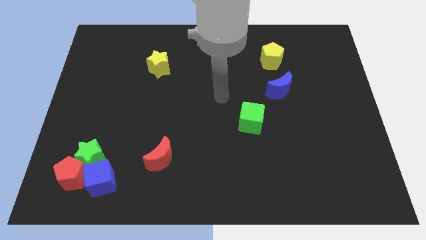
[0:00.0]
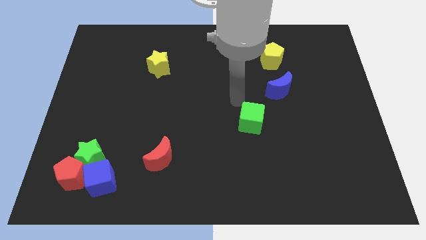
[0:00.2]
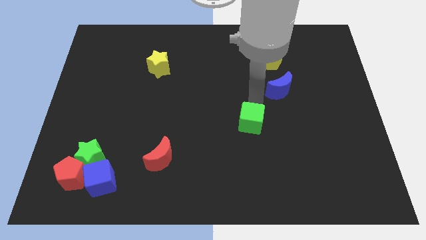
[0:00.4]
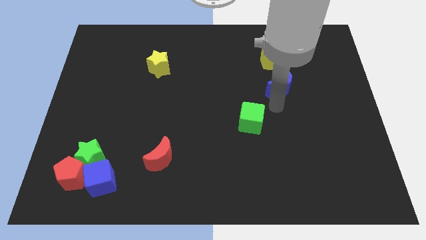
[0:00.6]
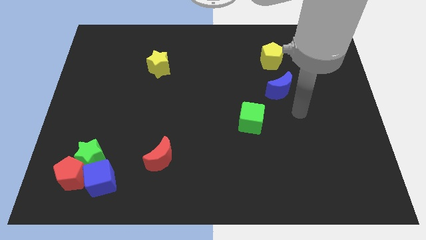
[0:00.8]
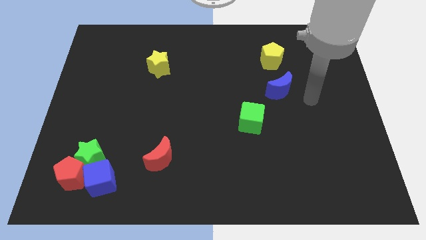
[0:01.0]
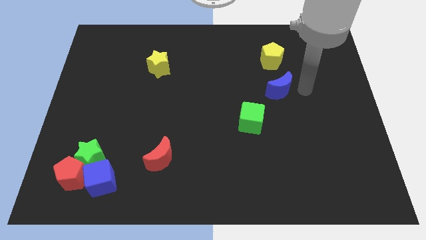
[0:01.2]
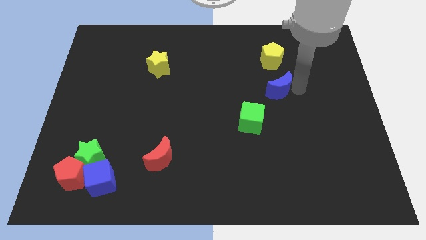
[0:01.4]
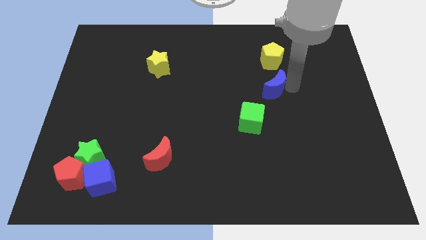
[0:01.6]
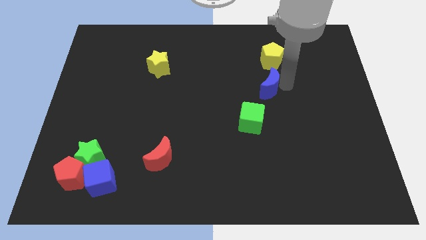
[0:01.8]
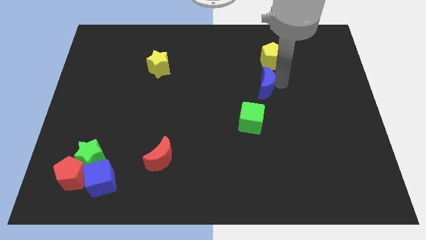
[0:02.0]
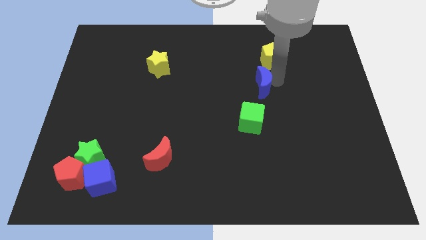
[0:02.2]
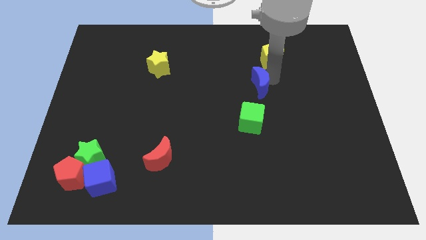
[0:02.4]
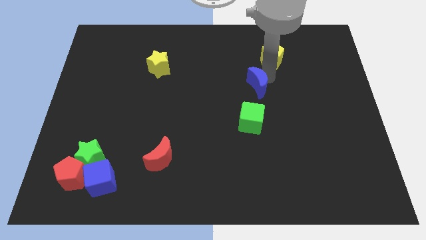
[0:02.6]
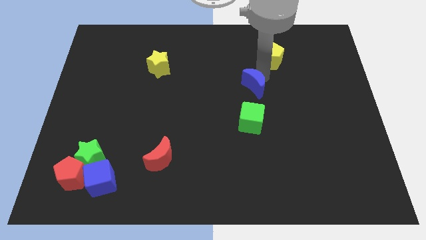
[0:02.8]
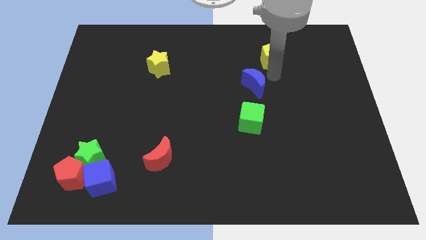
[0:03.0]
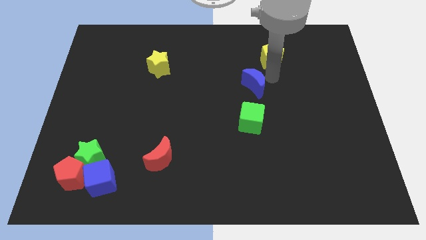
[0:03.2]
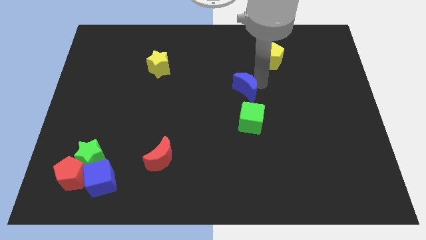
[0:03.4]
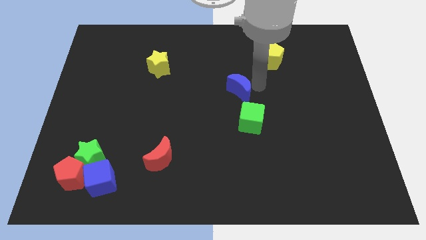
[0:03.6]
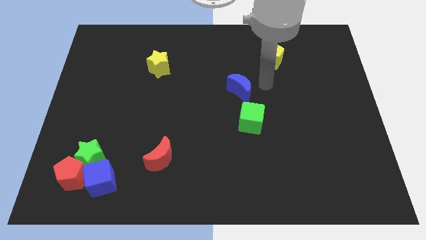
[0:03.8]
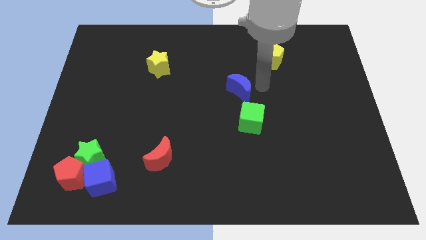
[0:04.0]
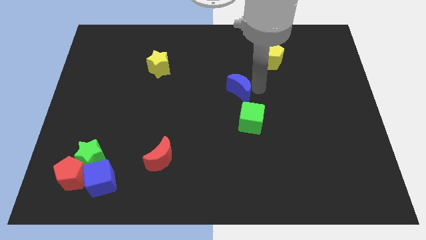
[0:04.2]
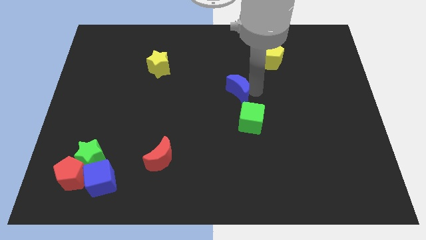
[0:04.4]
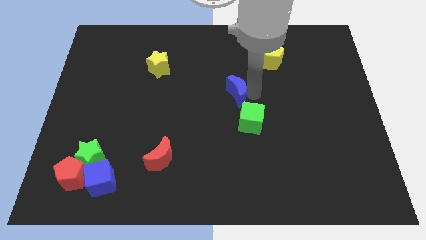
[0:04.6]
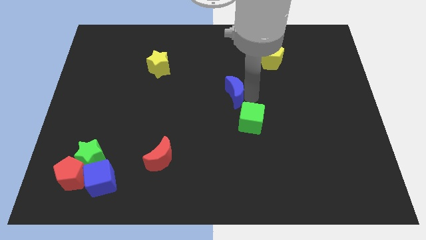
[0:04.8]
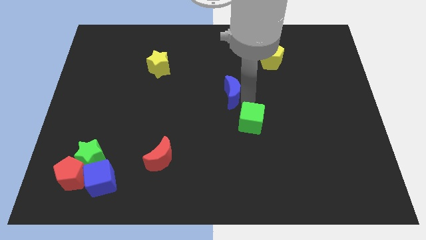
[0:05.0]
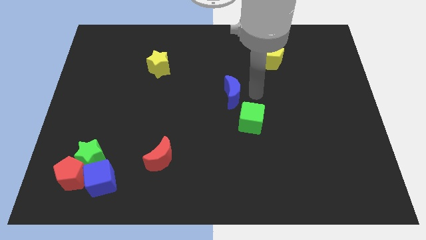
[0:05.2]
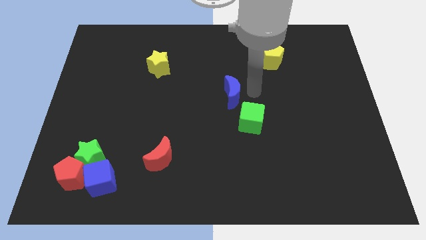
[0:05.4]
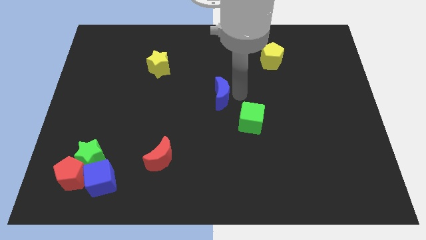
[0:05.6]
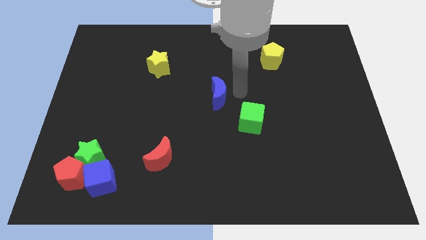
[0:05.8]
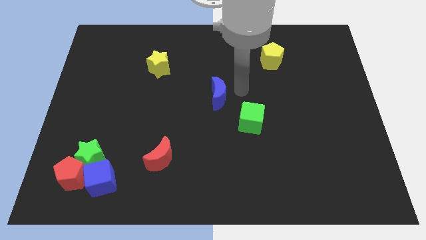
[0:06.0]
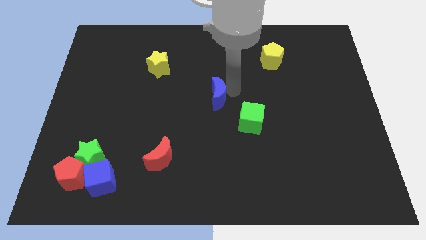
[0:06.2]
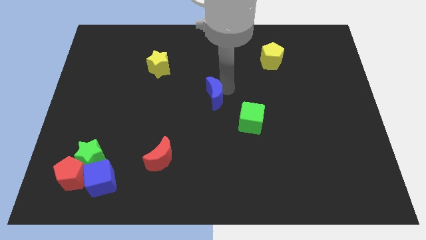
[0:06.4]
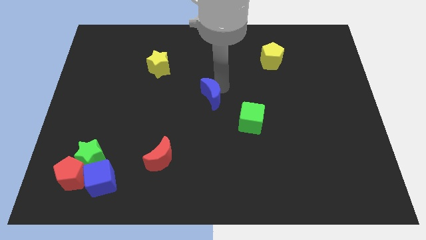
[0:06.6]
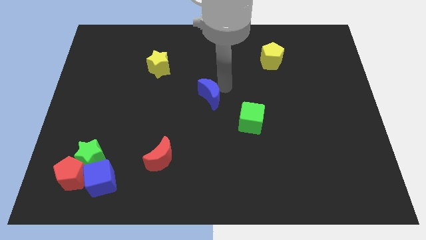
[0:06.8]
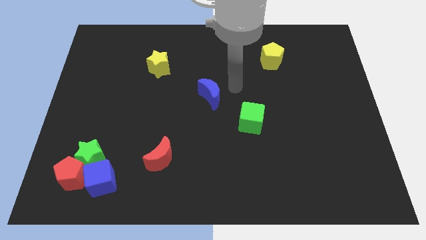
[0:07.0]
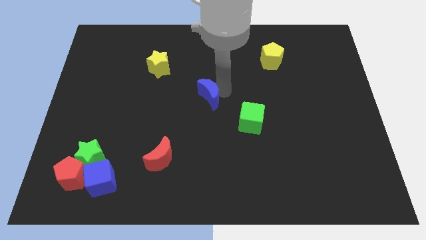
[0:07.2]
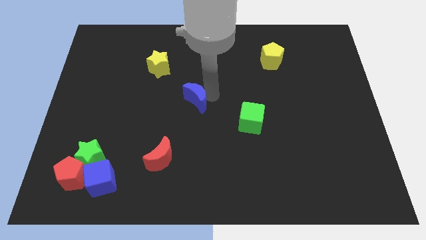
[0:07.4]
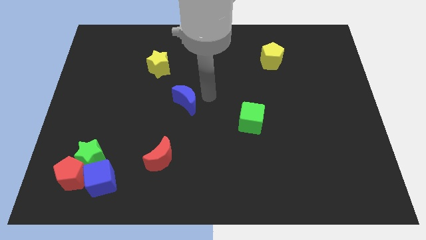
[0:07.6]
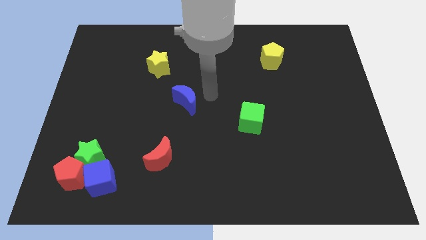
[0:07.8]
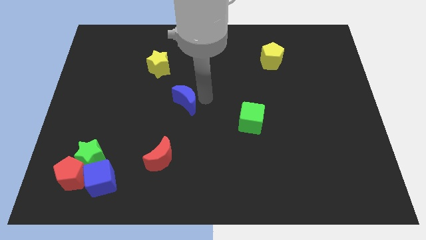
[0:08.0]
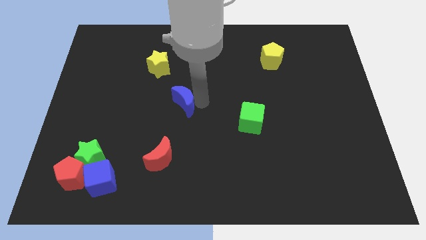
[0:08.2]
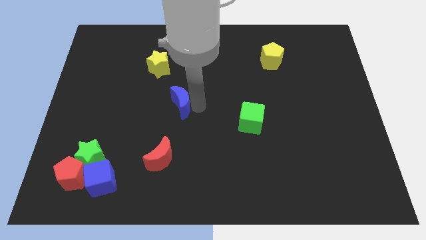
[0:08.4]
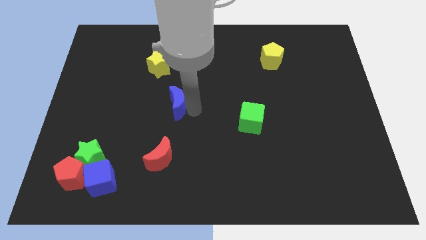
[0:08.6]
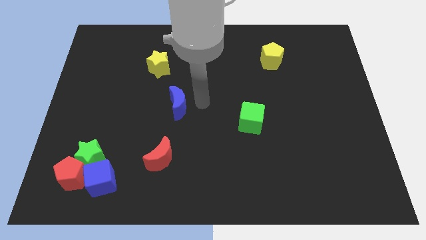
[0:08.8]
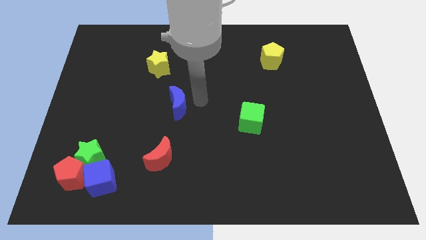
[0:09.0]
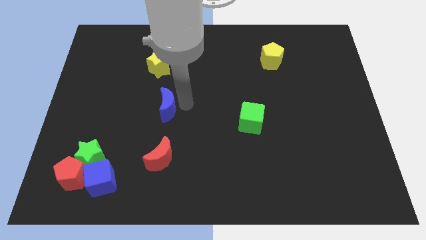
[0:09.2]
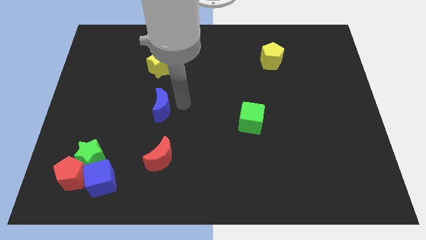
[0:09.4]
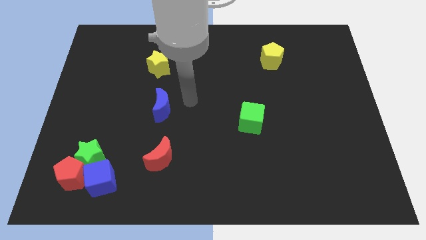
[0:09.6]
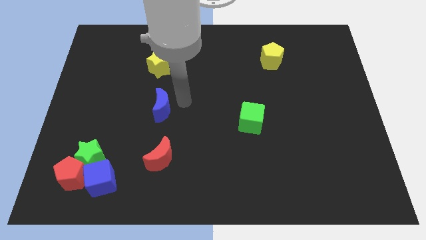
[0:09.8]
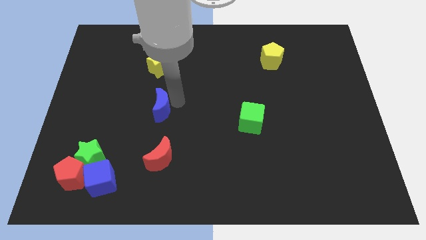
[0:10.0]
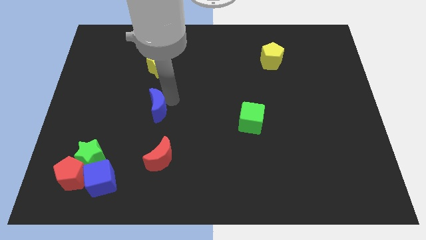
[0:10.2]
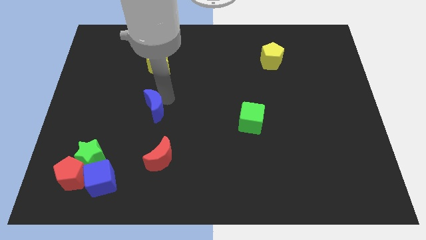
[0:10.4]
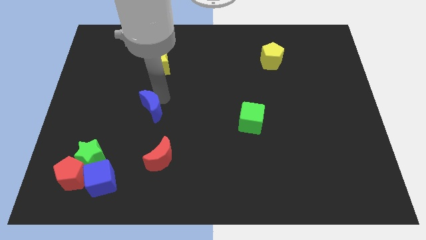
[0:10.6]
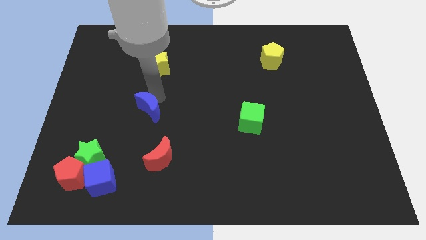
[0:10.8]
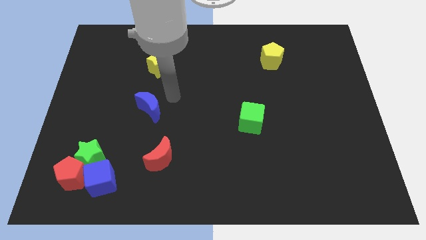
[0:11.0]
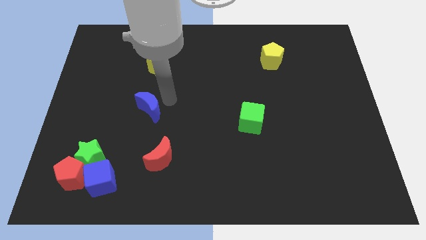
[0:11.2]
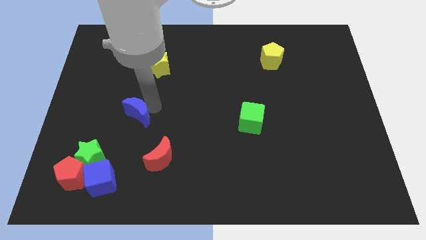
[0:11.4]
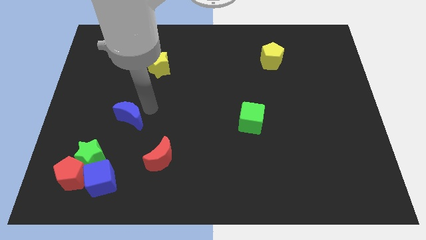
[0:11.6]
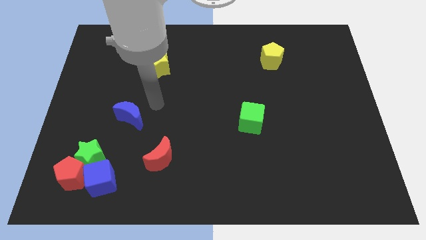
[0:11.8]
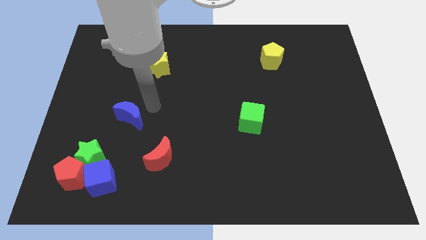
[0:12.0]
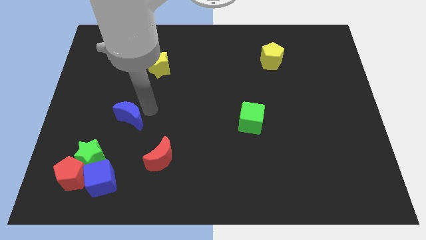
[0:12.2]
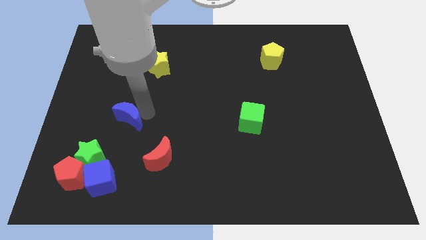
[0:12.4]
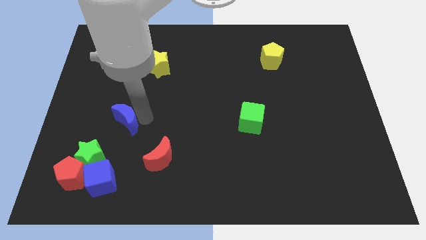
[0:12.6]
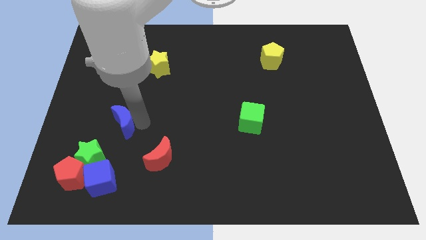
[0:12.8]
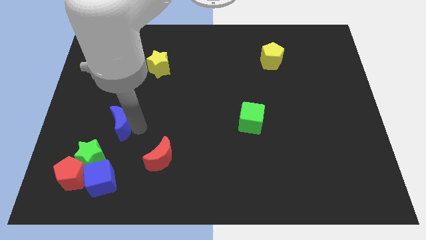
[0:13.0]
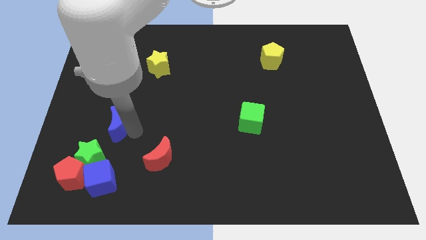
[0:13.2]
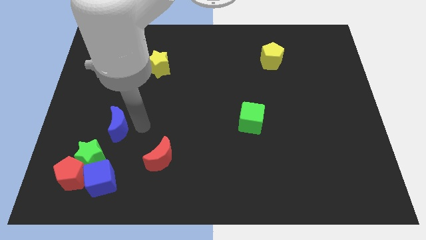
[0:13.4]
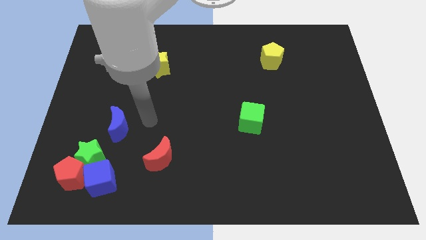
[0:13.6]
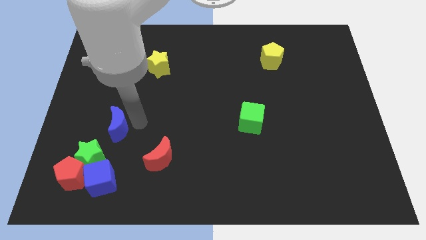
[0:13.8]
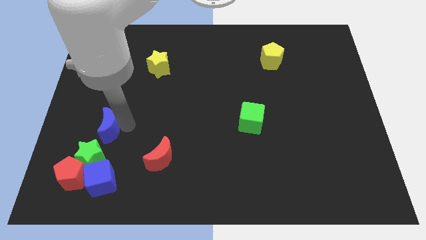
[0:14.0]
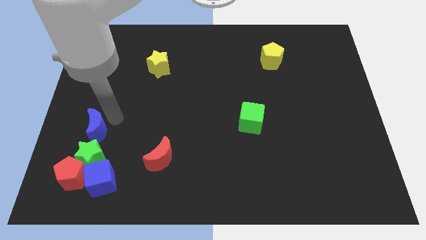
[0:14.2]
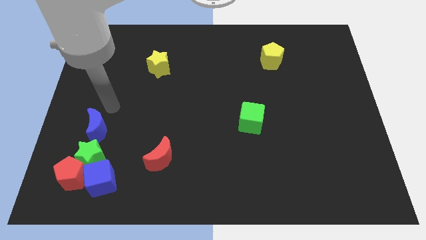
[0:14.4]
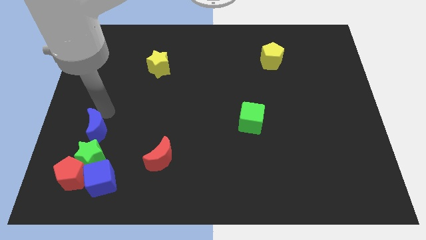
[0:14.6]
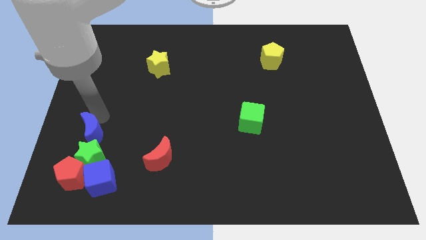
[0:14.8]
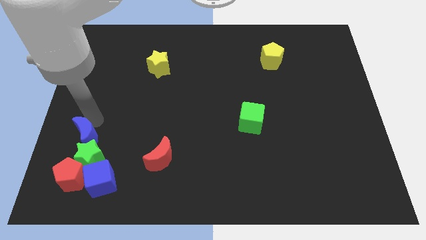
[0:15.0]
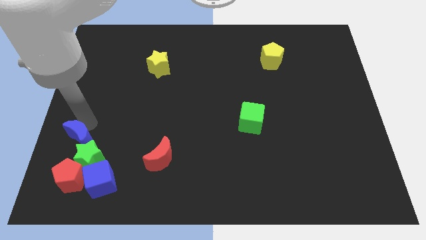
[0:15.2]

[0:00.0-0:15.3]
slide the blue moon to the top left of the blue cube
